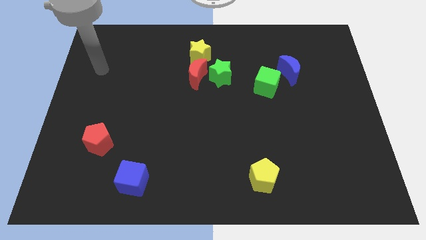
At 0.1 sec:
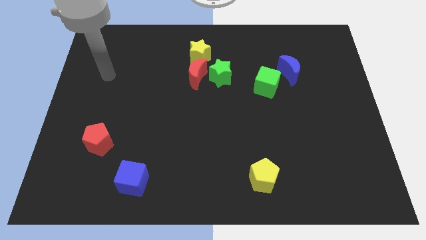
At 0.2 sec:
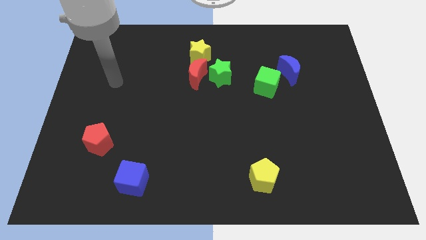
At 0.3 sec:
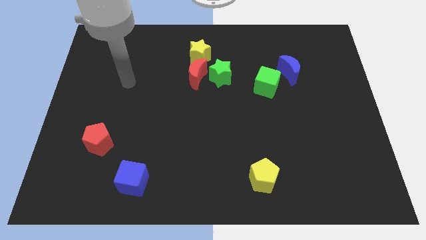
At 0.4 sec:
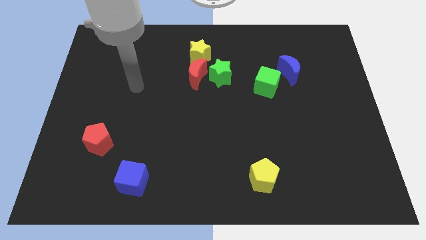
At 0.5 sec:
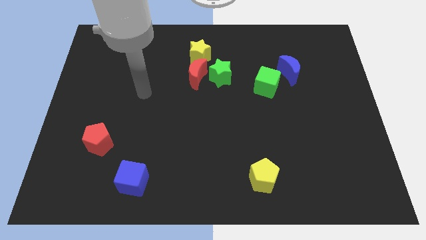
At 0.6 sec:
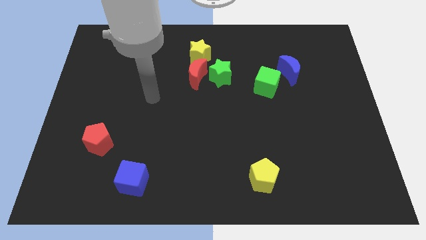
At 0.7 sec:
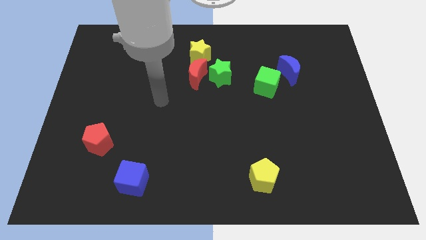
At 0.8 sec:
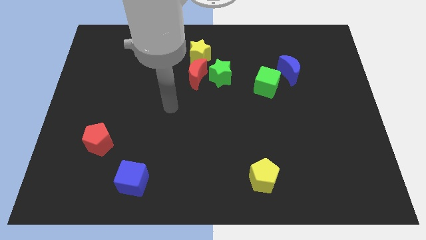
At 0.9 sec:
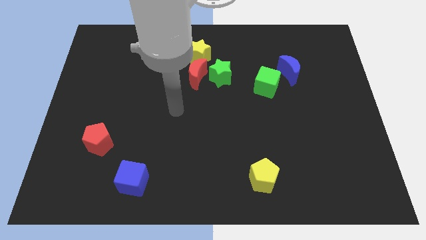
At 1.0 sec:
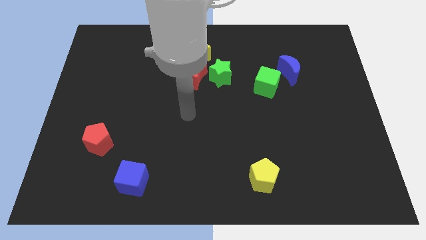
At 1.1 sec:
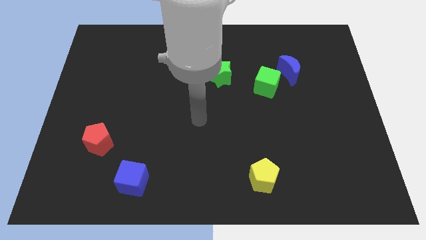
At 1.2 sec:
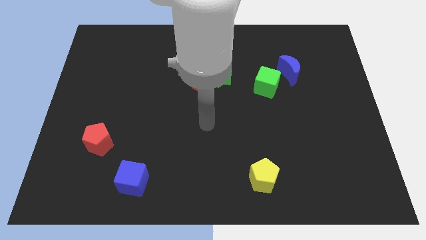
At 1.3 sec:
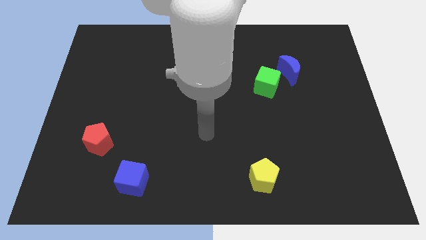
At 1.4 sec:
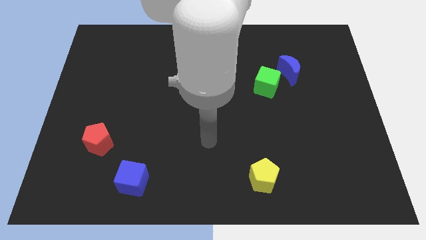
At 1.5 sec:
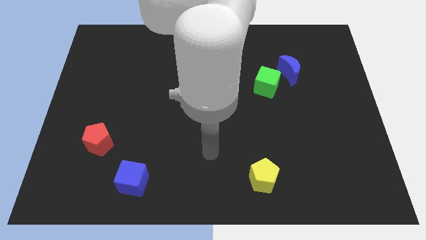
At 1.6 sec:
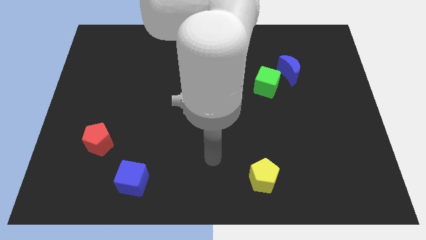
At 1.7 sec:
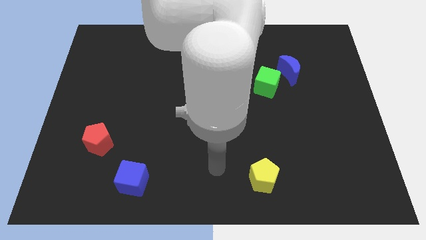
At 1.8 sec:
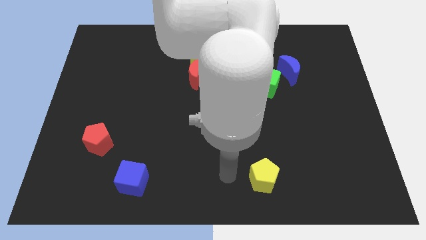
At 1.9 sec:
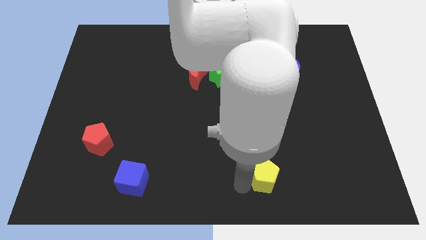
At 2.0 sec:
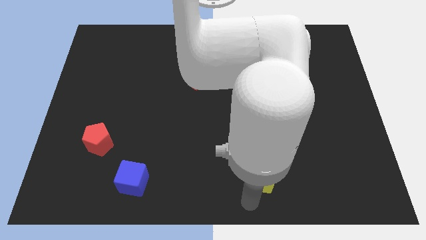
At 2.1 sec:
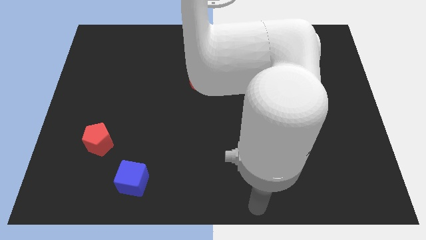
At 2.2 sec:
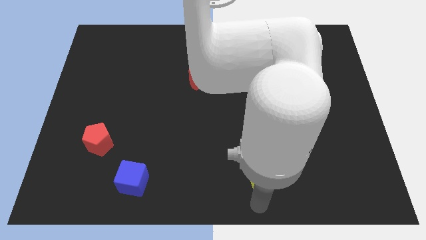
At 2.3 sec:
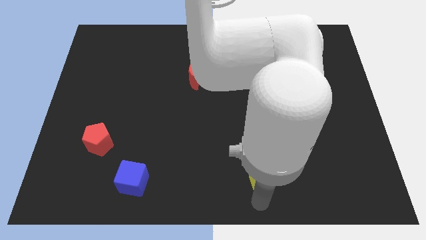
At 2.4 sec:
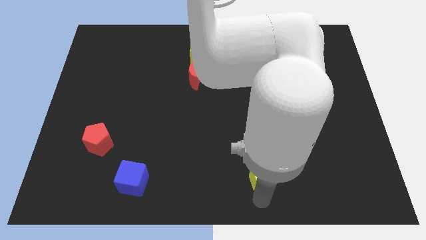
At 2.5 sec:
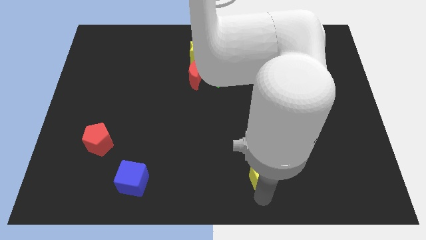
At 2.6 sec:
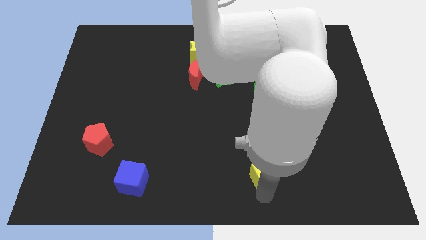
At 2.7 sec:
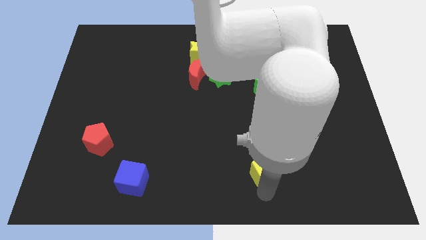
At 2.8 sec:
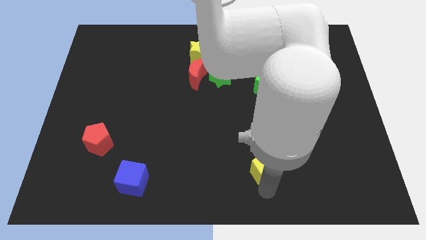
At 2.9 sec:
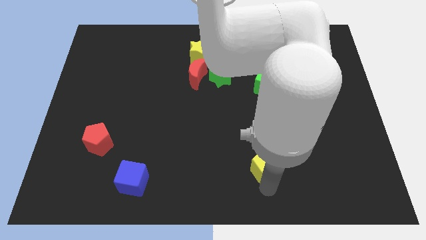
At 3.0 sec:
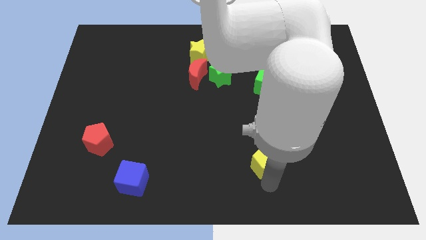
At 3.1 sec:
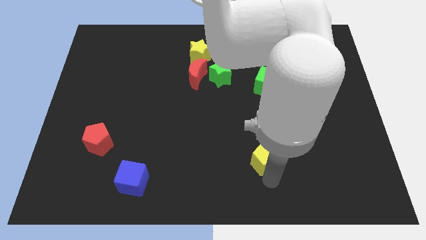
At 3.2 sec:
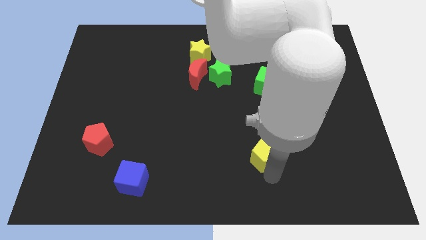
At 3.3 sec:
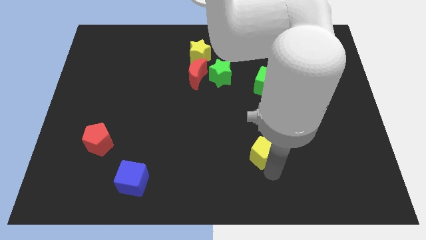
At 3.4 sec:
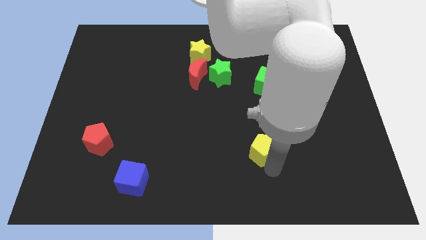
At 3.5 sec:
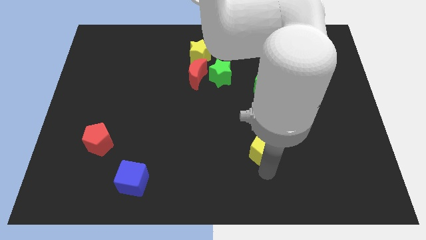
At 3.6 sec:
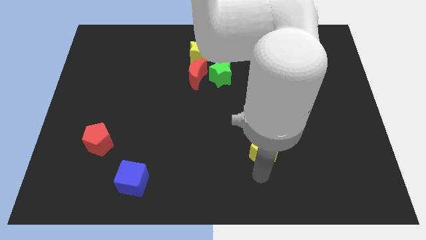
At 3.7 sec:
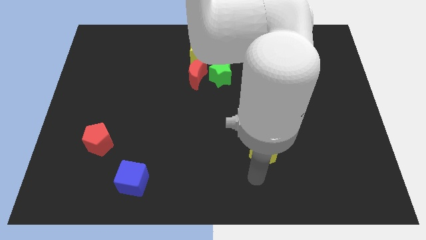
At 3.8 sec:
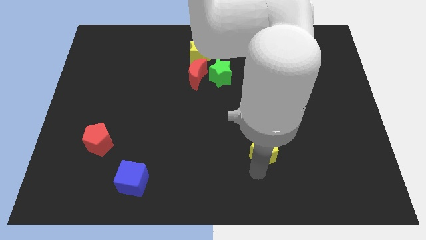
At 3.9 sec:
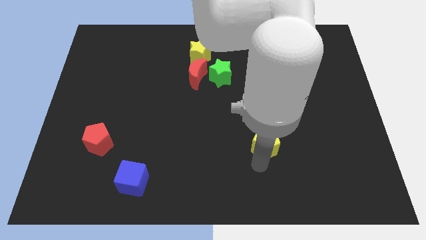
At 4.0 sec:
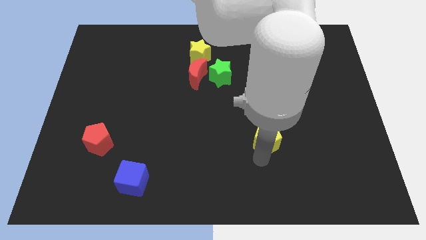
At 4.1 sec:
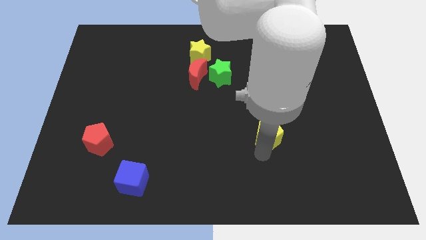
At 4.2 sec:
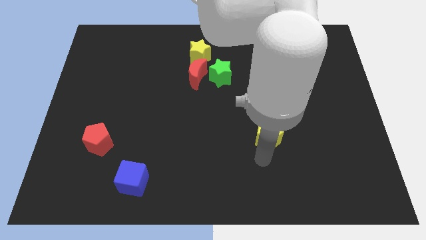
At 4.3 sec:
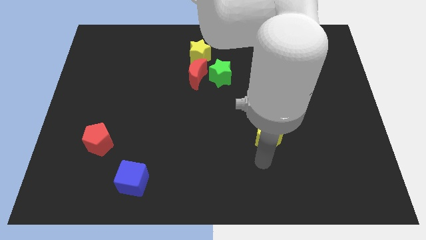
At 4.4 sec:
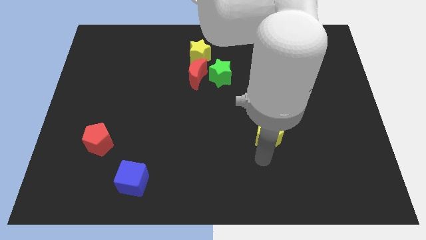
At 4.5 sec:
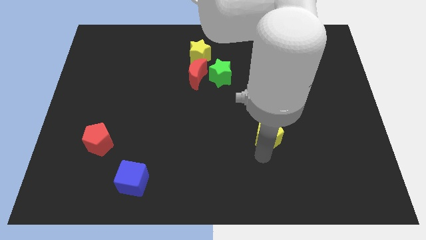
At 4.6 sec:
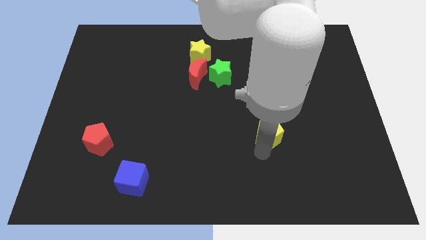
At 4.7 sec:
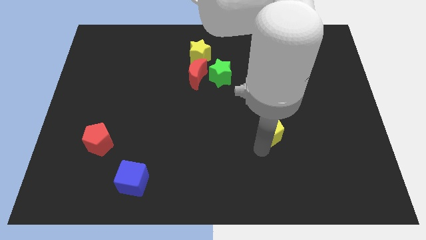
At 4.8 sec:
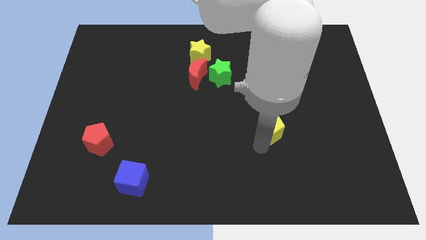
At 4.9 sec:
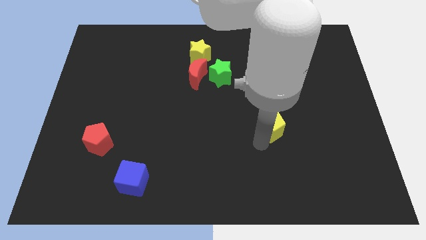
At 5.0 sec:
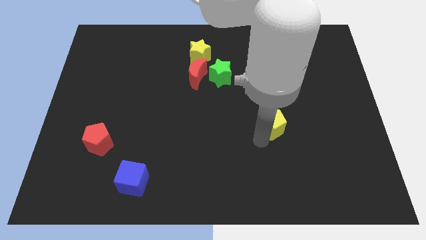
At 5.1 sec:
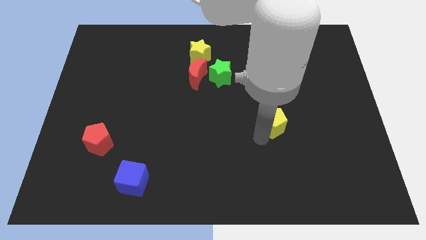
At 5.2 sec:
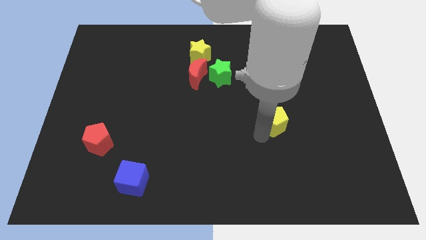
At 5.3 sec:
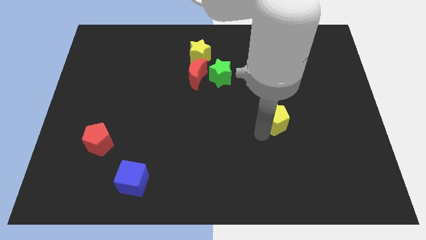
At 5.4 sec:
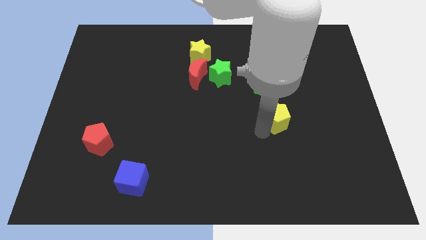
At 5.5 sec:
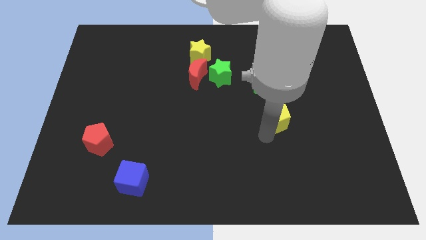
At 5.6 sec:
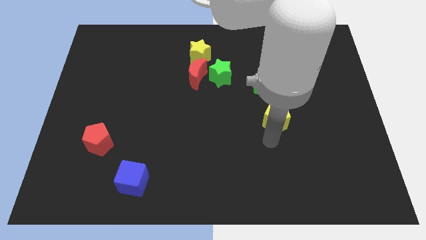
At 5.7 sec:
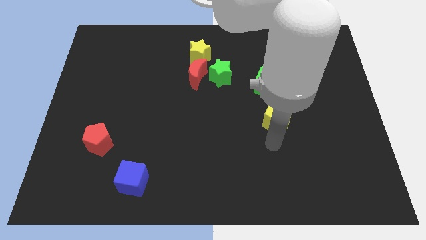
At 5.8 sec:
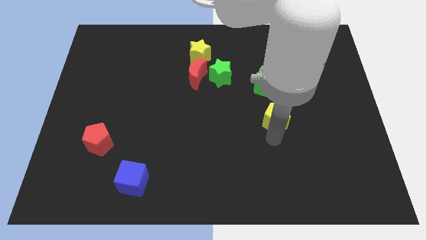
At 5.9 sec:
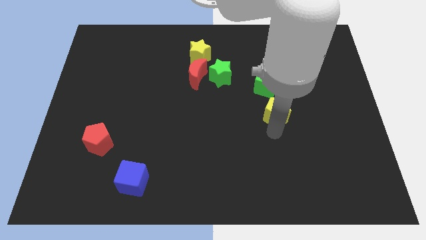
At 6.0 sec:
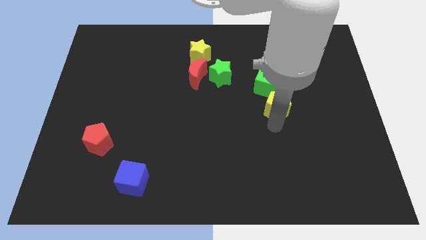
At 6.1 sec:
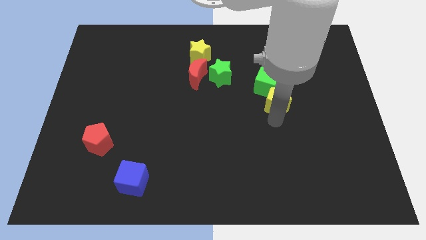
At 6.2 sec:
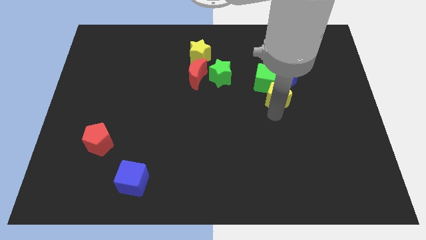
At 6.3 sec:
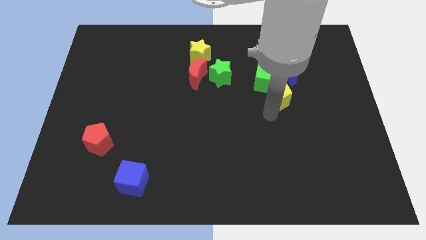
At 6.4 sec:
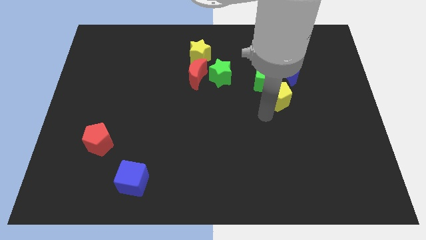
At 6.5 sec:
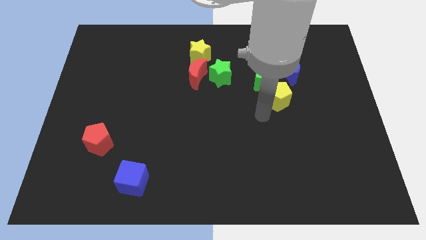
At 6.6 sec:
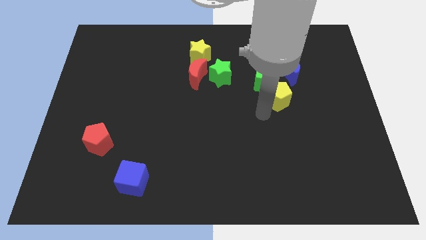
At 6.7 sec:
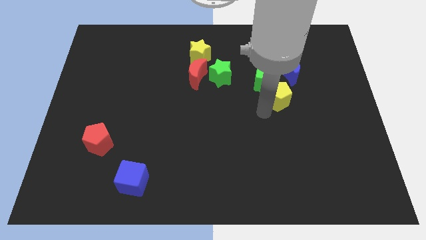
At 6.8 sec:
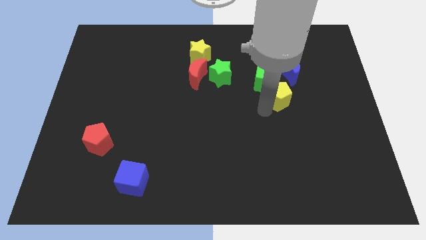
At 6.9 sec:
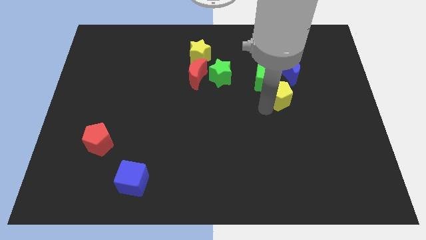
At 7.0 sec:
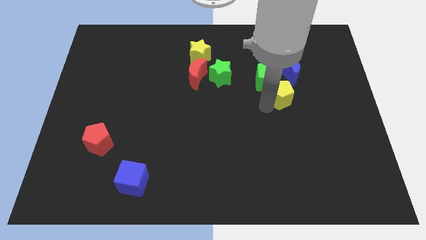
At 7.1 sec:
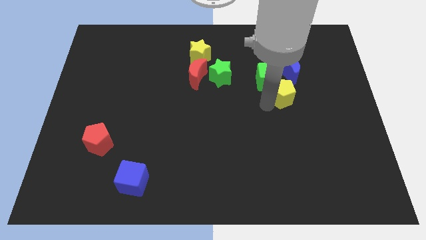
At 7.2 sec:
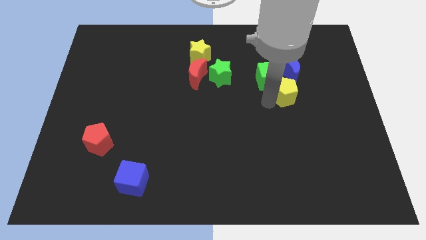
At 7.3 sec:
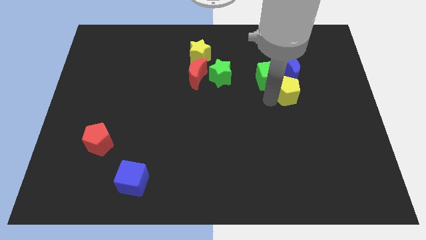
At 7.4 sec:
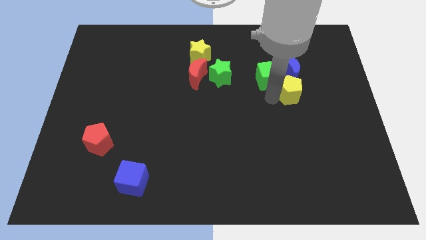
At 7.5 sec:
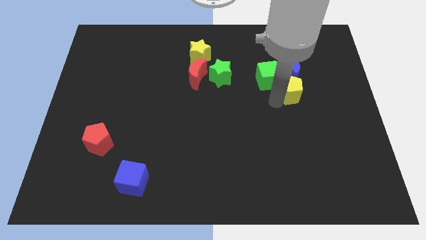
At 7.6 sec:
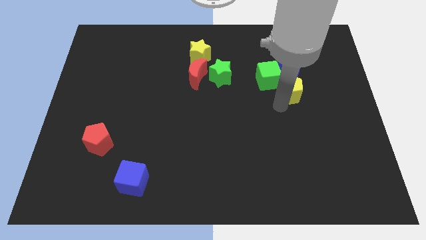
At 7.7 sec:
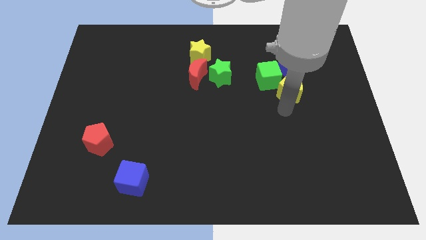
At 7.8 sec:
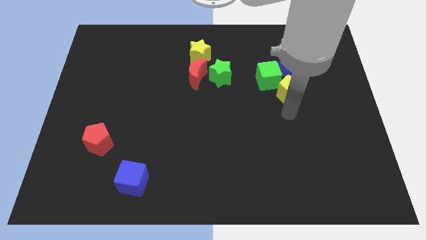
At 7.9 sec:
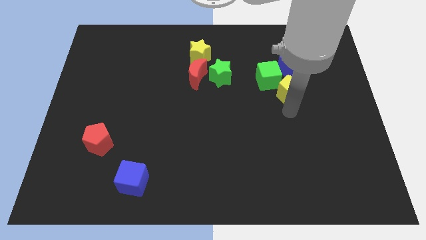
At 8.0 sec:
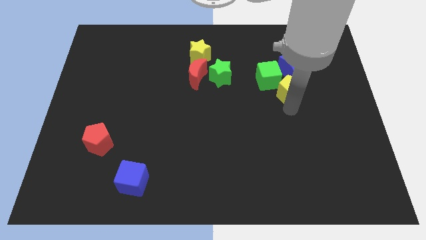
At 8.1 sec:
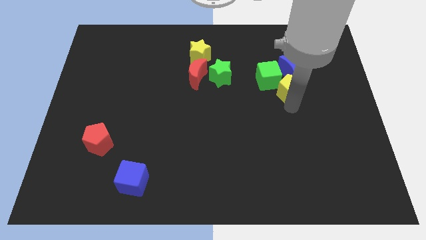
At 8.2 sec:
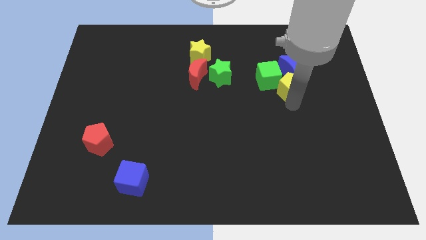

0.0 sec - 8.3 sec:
move the yellow pentagon towards the blue moon
